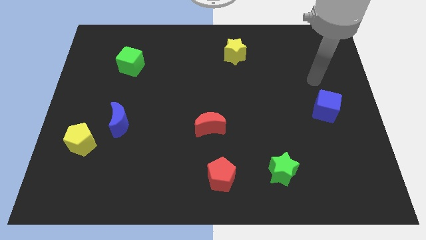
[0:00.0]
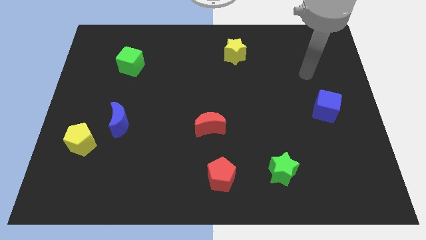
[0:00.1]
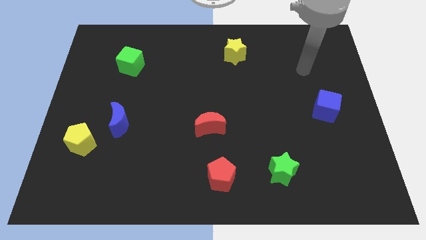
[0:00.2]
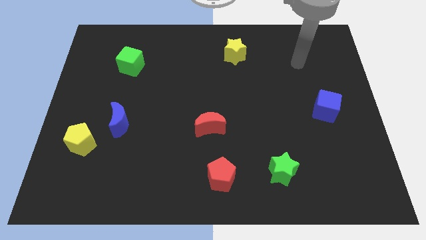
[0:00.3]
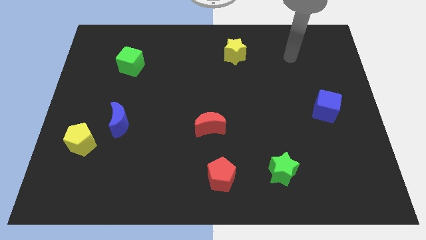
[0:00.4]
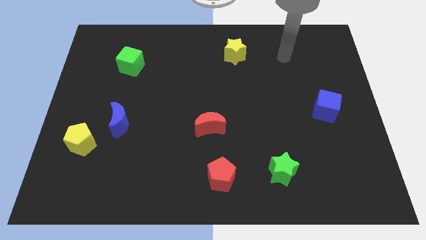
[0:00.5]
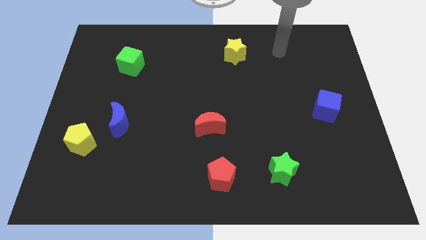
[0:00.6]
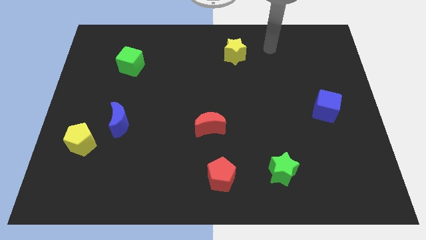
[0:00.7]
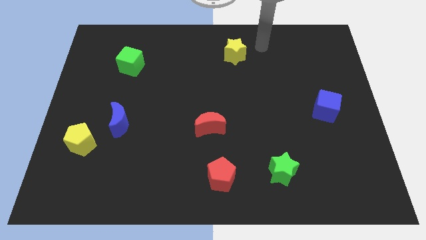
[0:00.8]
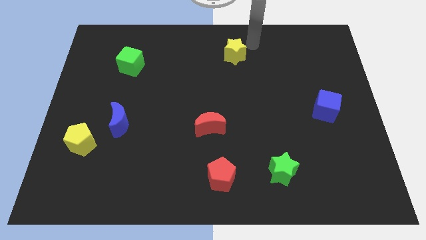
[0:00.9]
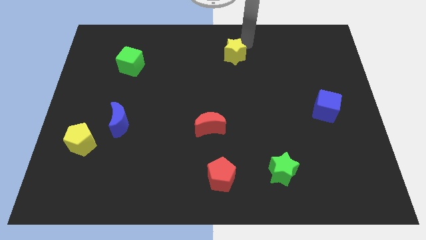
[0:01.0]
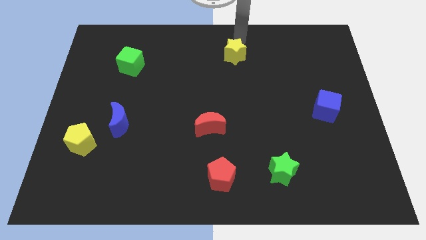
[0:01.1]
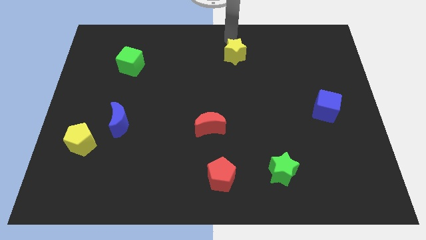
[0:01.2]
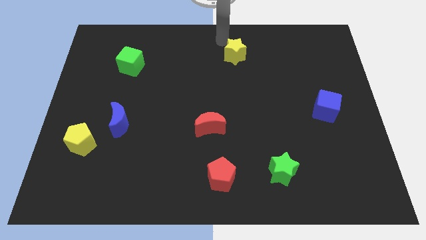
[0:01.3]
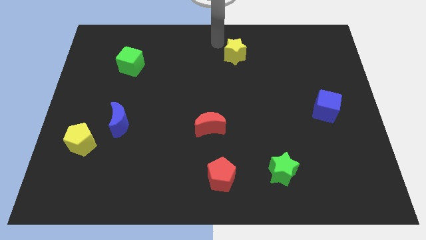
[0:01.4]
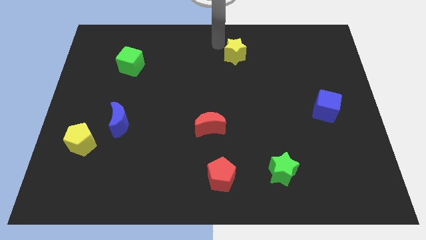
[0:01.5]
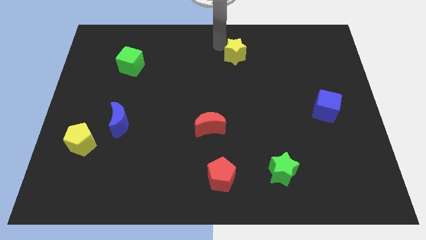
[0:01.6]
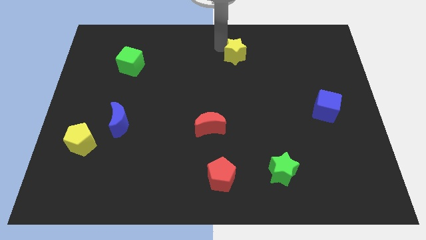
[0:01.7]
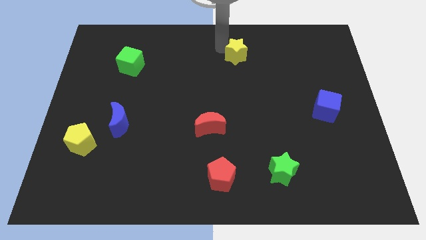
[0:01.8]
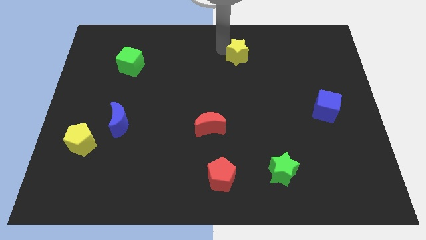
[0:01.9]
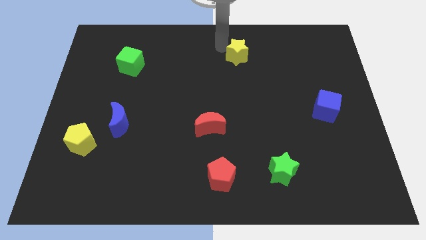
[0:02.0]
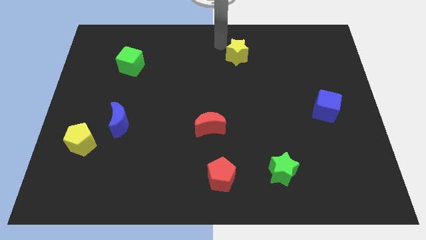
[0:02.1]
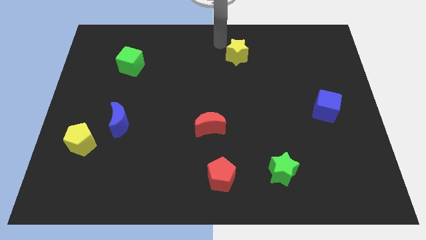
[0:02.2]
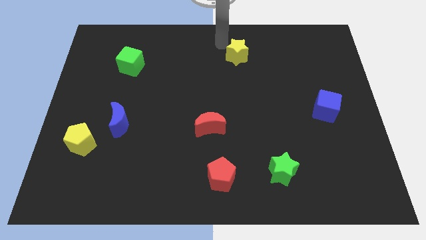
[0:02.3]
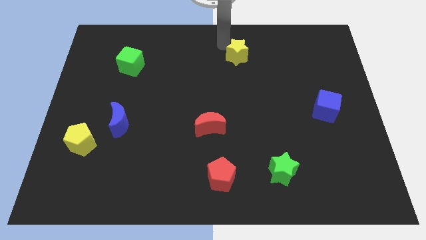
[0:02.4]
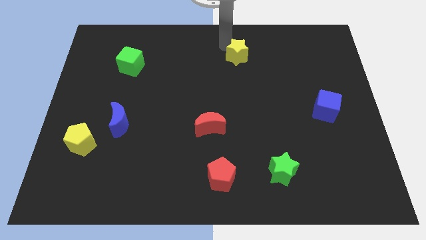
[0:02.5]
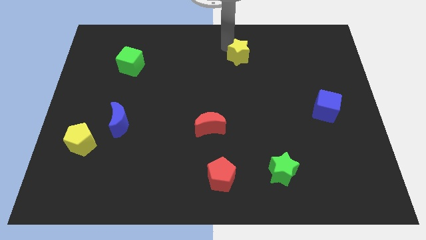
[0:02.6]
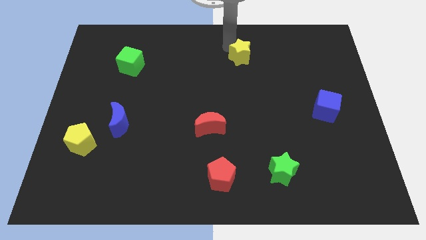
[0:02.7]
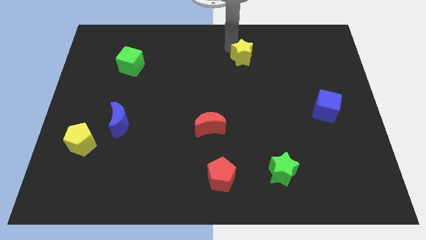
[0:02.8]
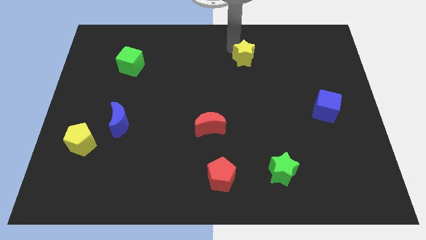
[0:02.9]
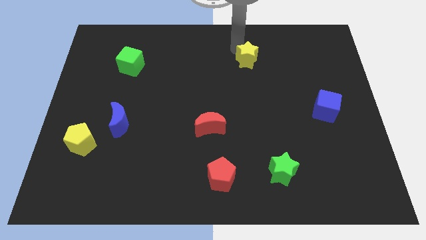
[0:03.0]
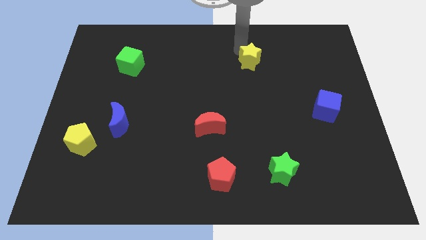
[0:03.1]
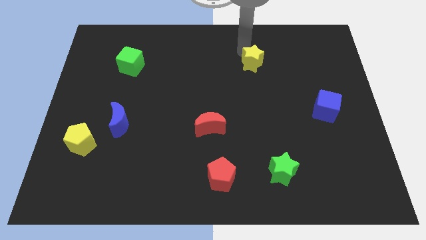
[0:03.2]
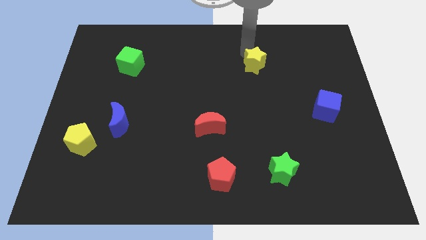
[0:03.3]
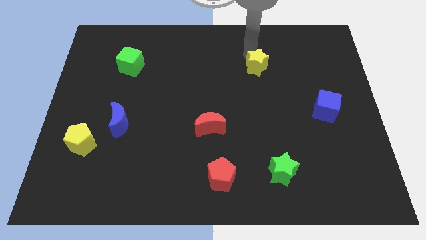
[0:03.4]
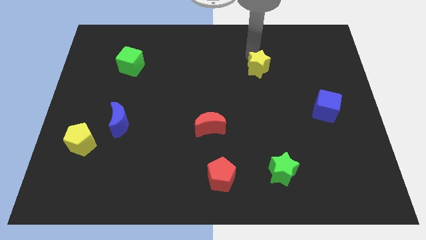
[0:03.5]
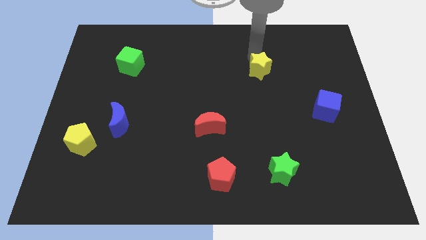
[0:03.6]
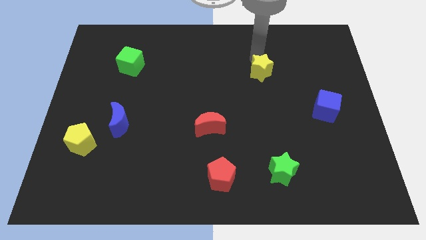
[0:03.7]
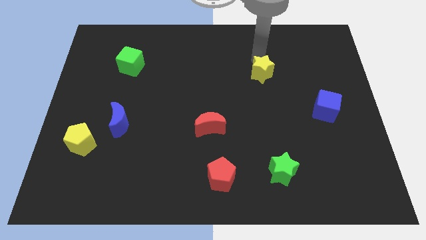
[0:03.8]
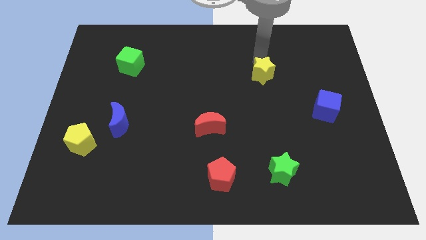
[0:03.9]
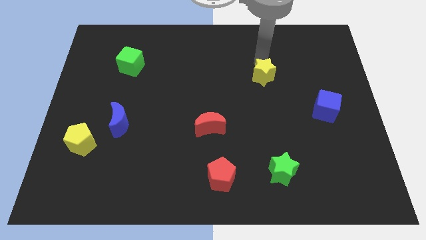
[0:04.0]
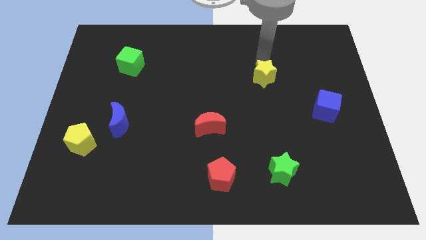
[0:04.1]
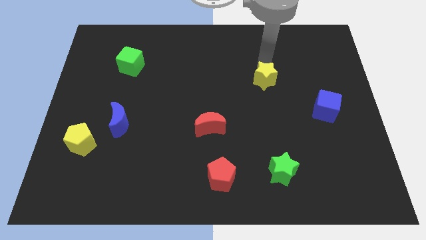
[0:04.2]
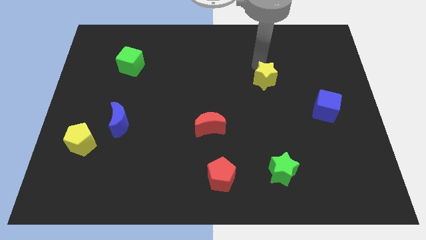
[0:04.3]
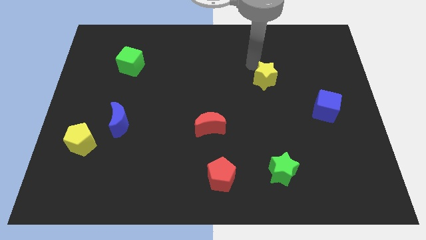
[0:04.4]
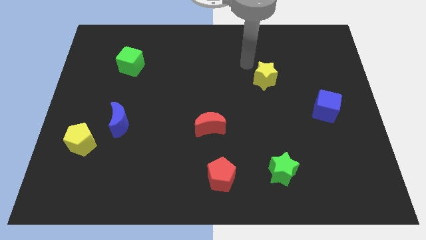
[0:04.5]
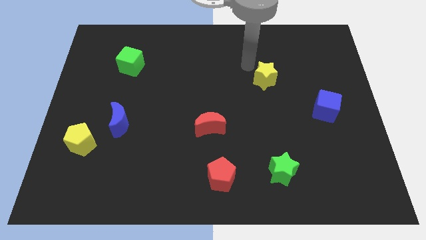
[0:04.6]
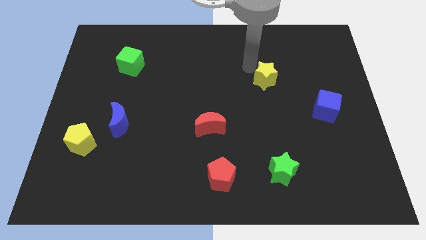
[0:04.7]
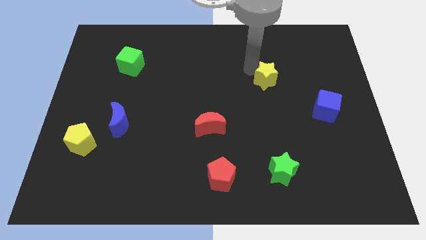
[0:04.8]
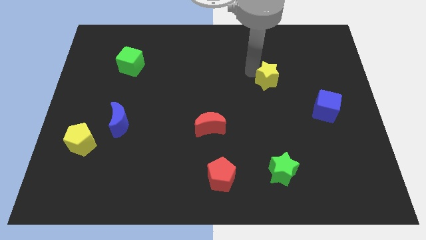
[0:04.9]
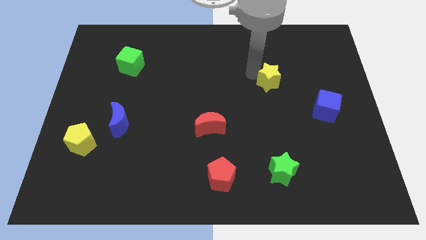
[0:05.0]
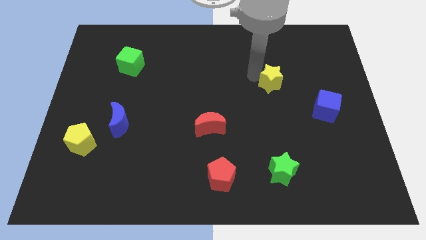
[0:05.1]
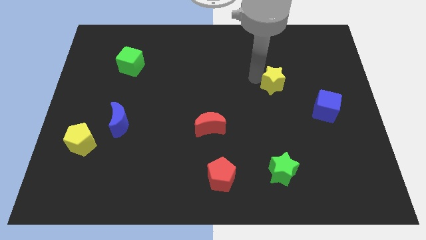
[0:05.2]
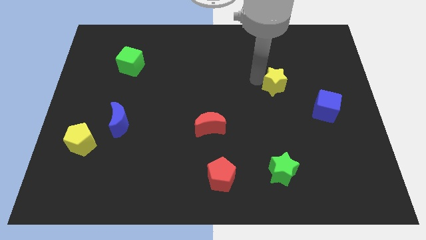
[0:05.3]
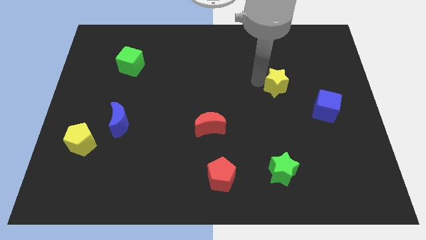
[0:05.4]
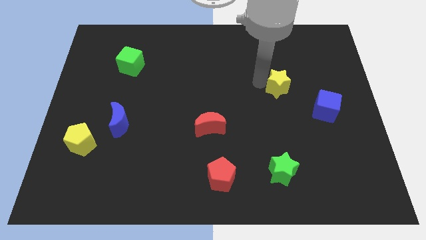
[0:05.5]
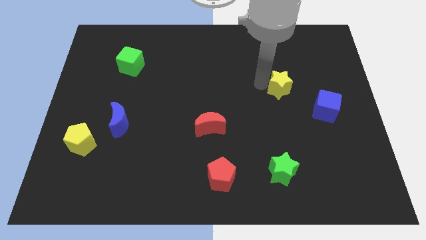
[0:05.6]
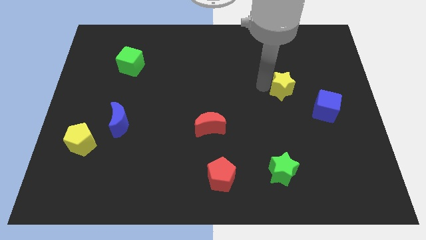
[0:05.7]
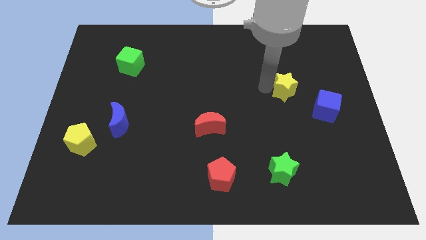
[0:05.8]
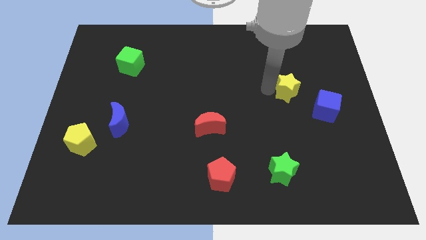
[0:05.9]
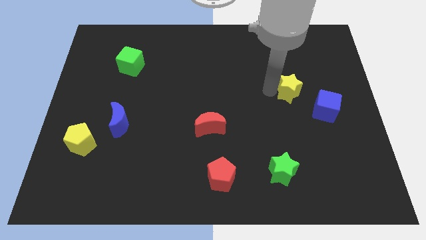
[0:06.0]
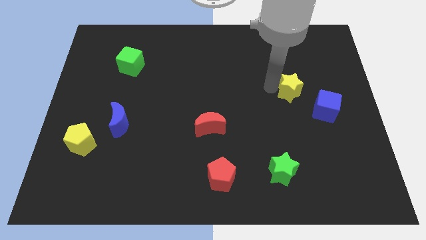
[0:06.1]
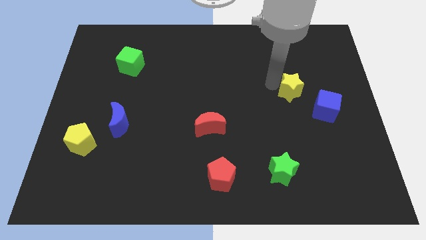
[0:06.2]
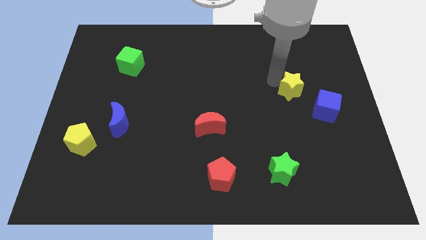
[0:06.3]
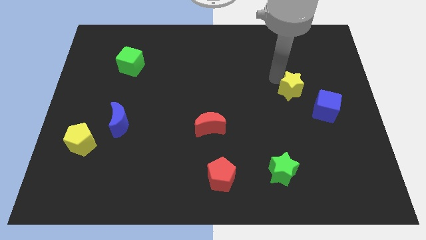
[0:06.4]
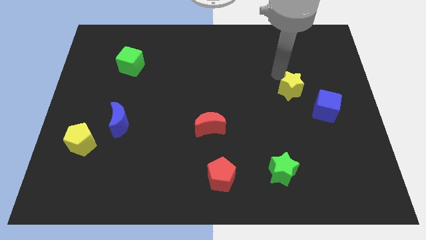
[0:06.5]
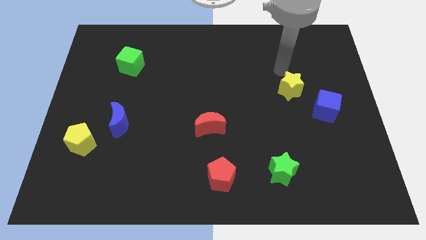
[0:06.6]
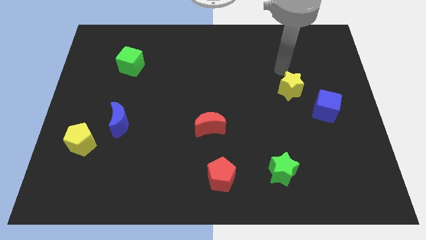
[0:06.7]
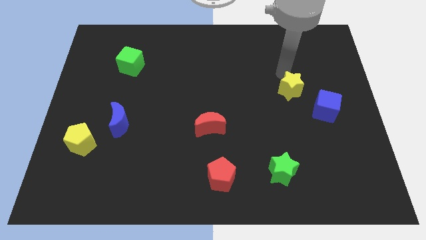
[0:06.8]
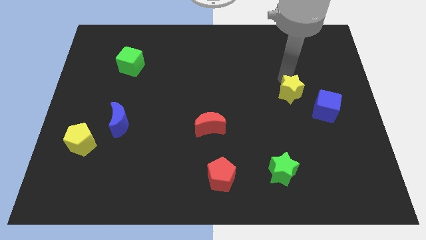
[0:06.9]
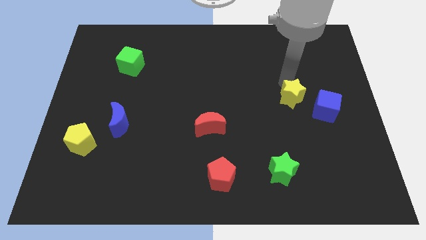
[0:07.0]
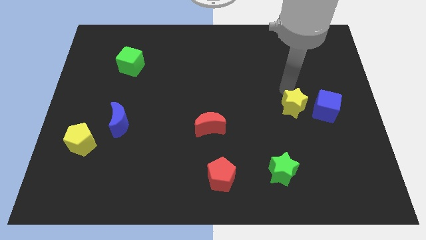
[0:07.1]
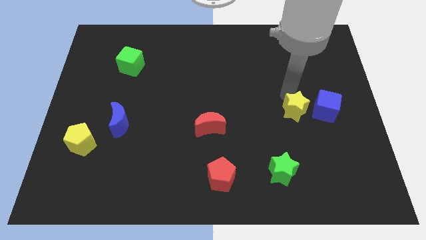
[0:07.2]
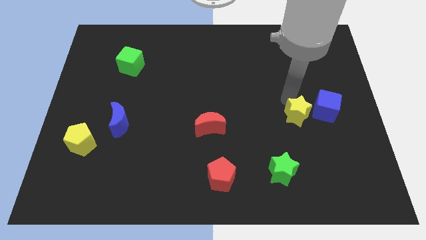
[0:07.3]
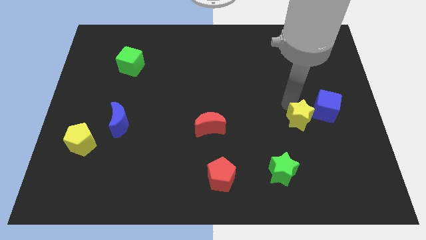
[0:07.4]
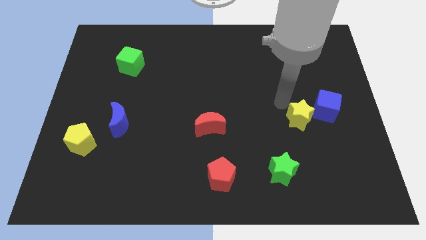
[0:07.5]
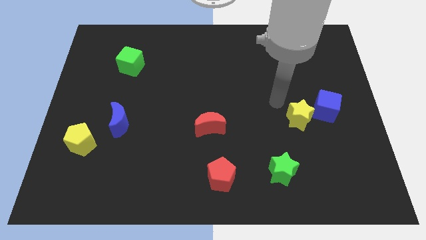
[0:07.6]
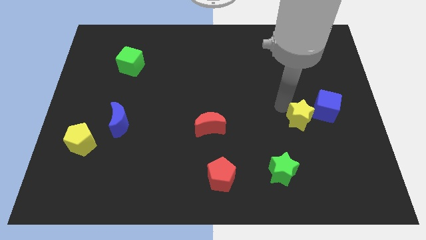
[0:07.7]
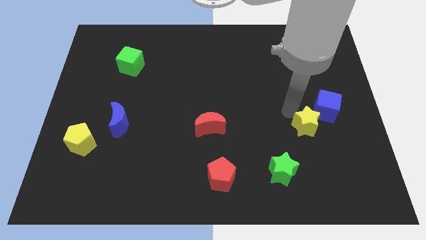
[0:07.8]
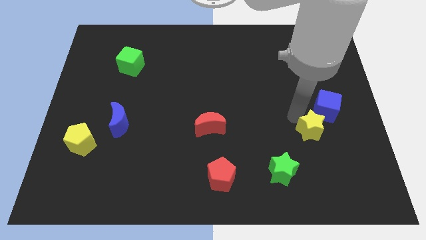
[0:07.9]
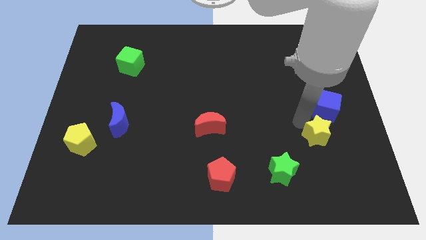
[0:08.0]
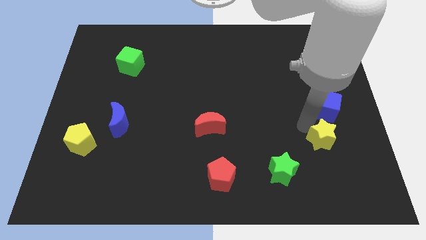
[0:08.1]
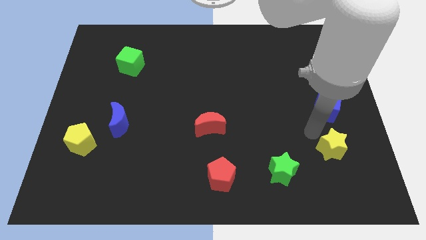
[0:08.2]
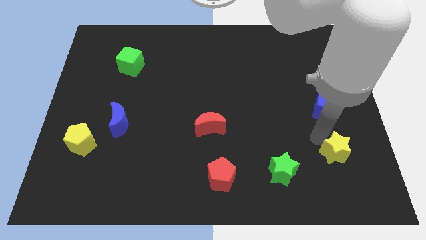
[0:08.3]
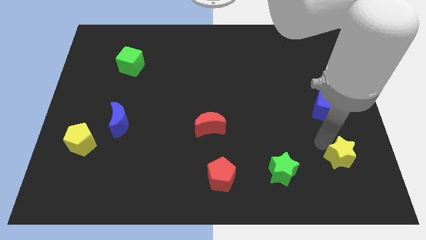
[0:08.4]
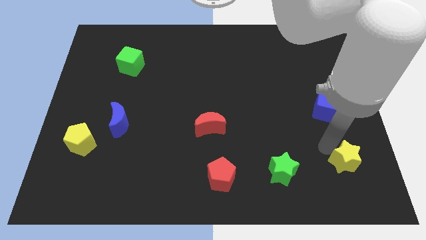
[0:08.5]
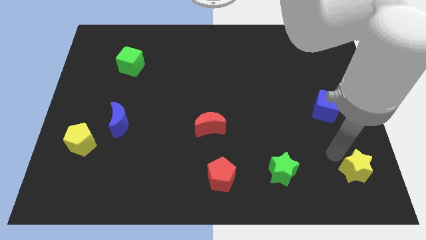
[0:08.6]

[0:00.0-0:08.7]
put the yellow star to the lower right corner
